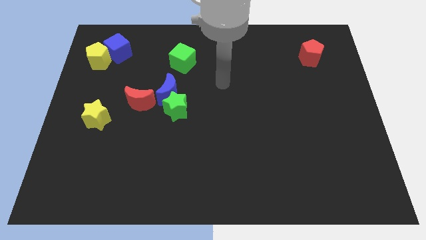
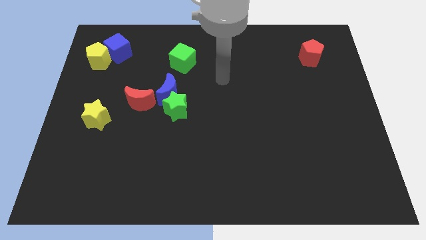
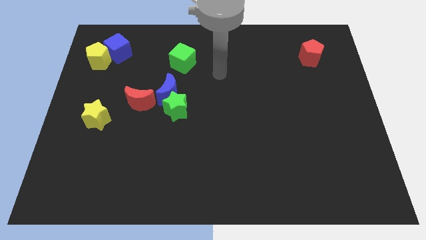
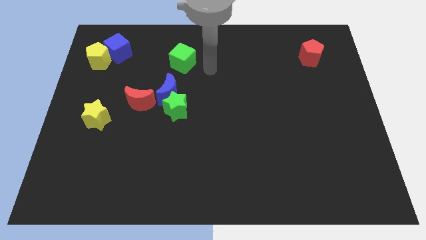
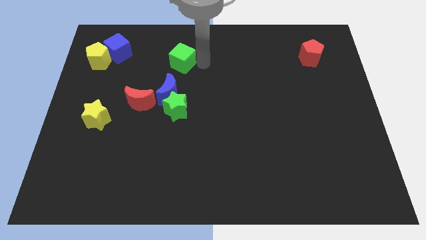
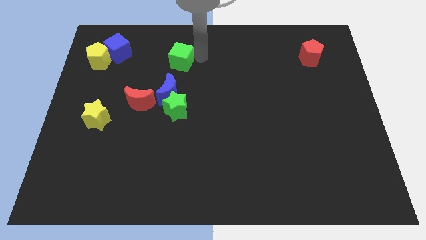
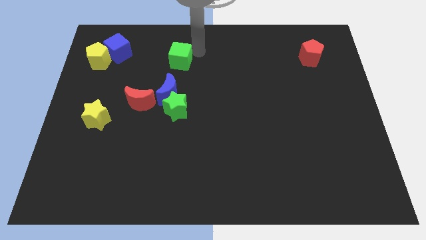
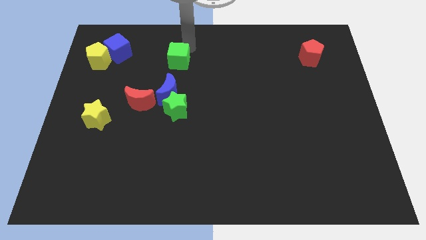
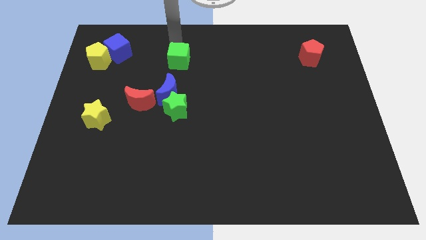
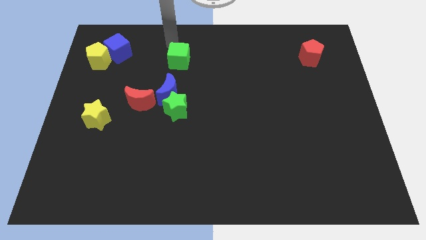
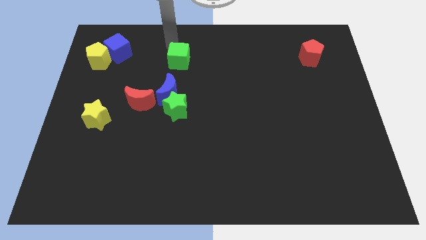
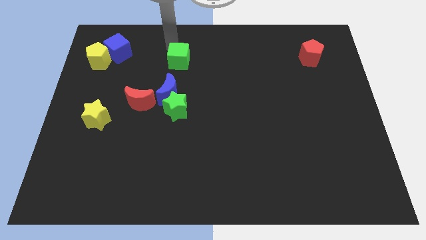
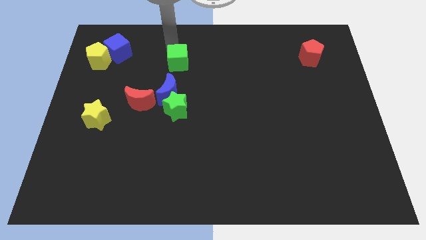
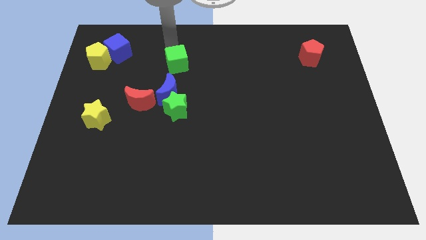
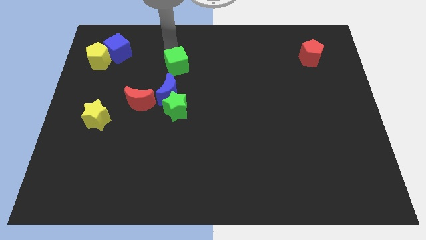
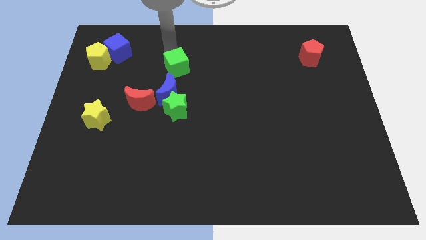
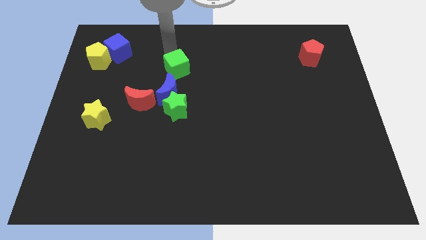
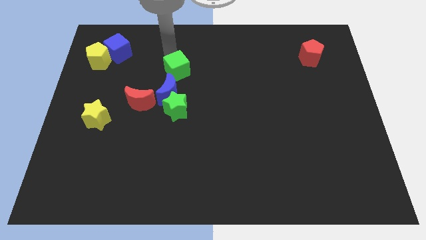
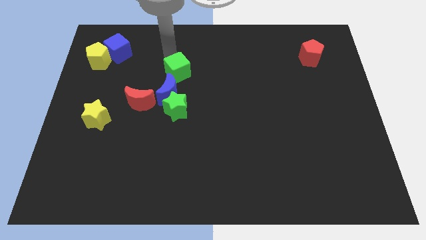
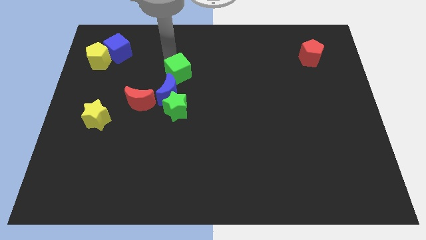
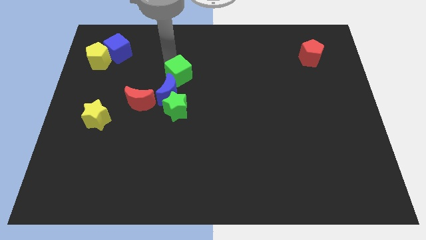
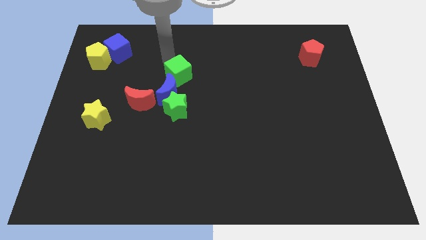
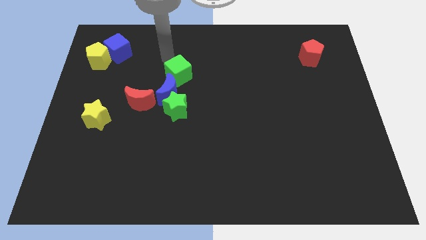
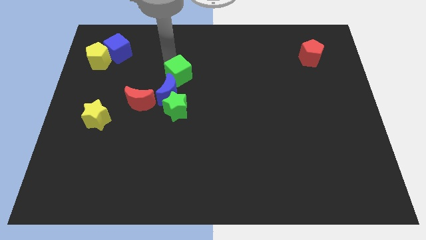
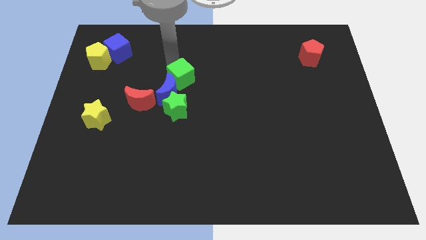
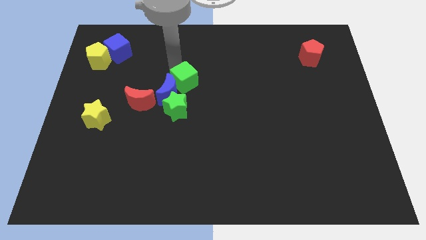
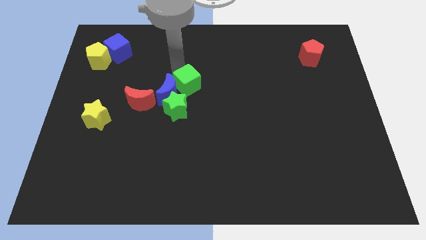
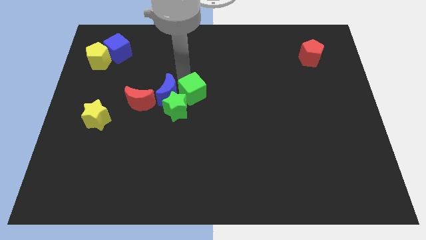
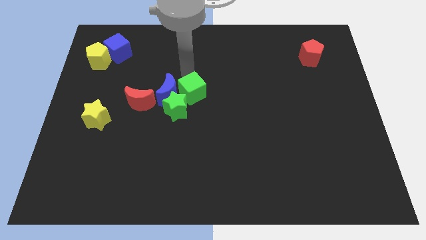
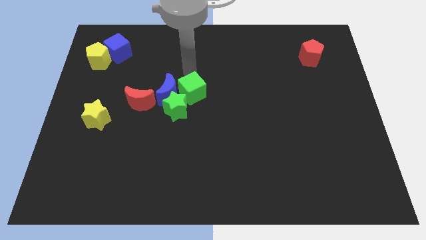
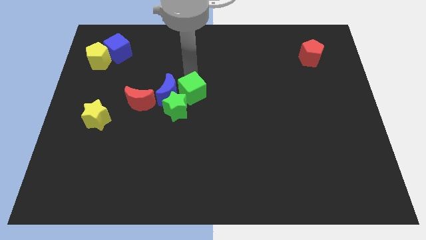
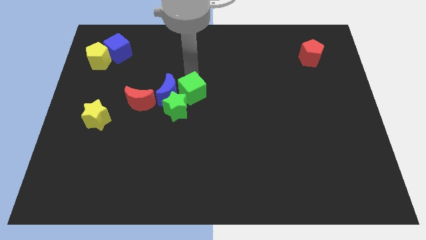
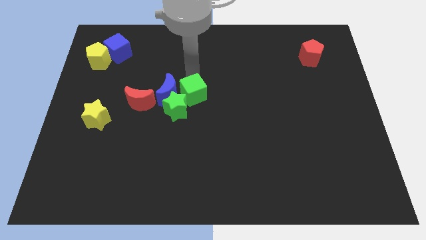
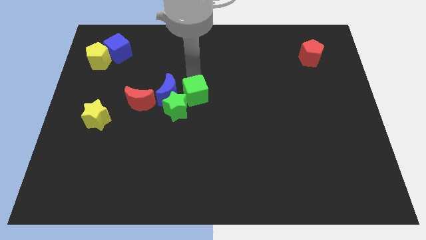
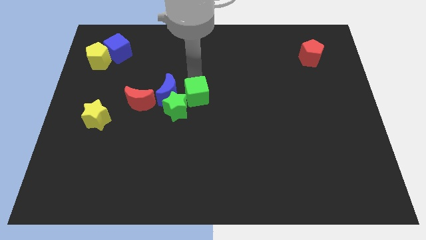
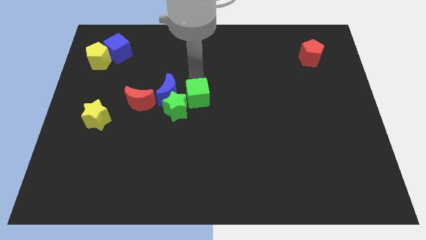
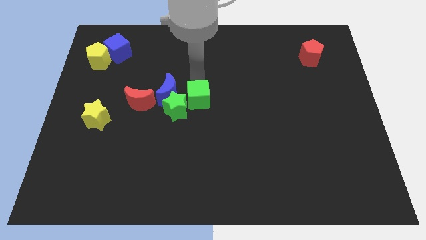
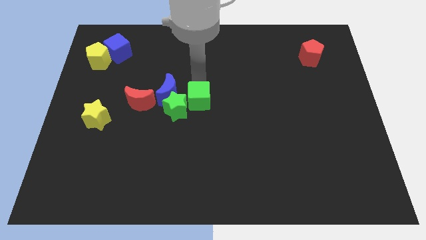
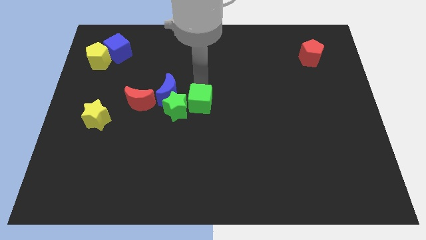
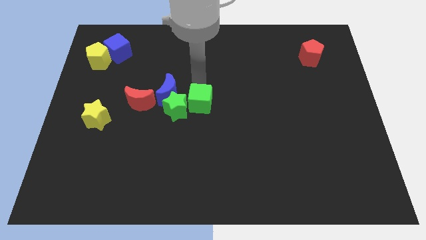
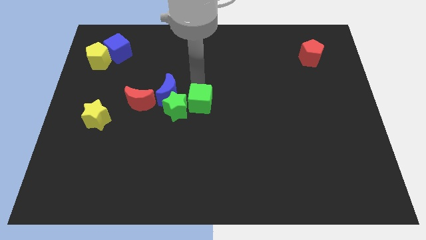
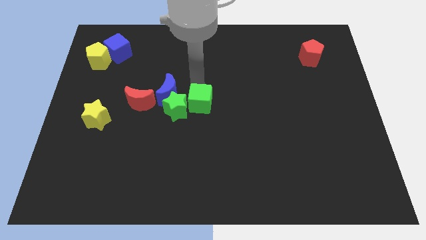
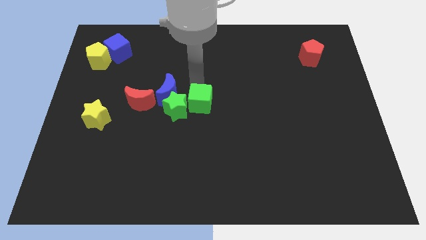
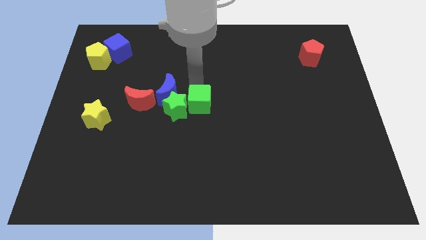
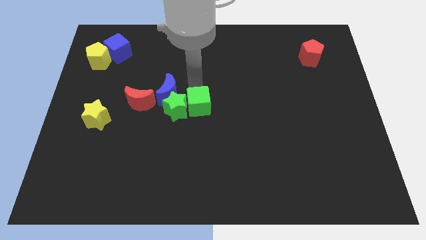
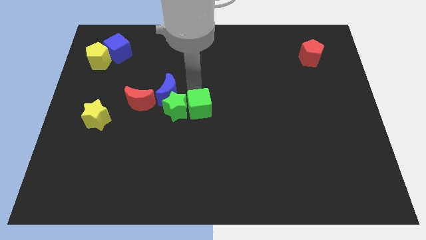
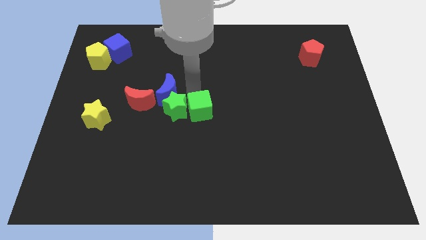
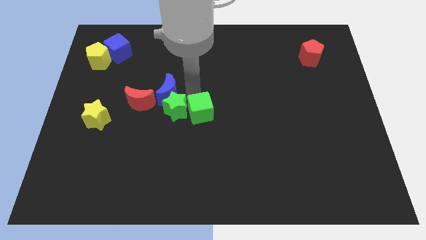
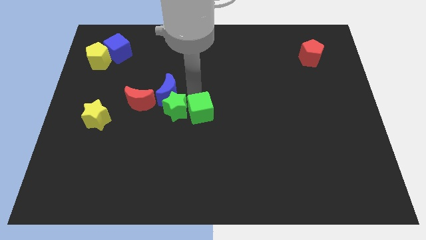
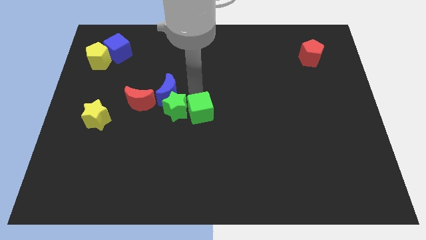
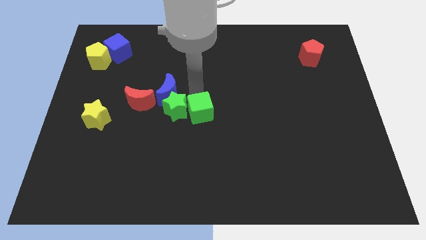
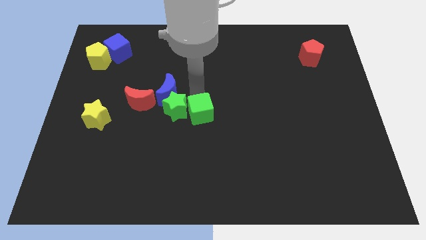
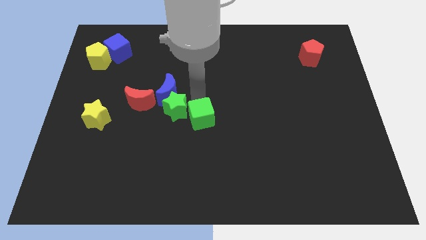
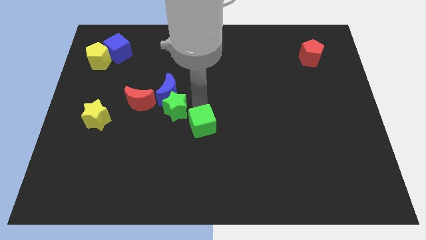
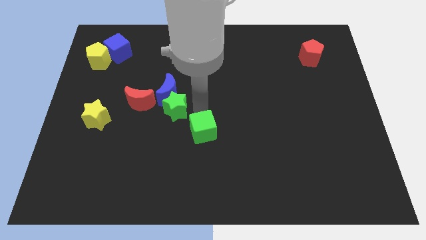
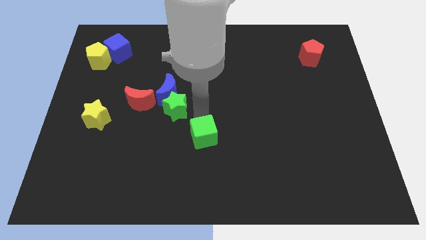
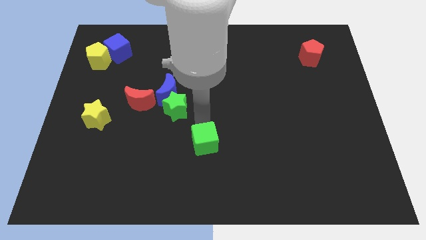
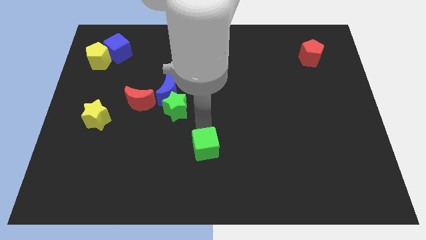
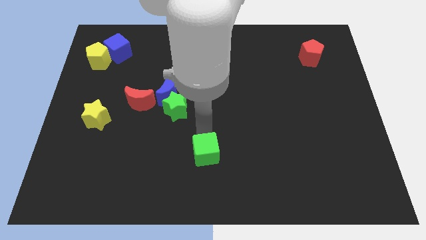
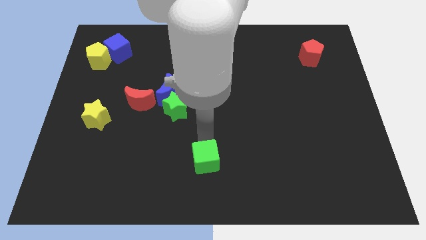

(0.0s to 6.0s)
slide the green cube to the bottom side
